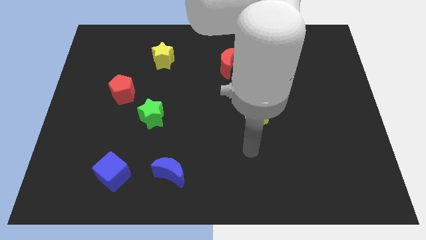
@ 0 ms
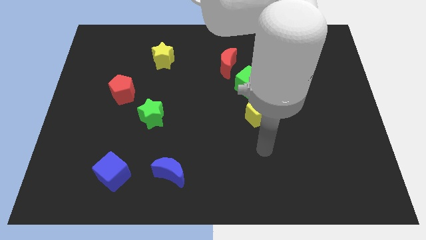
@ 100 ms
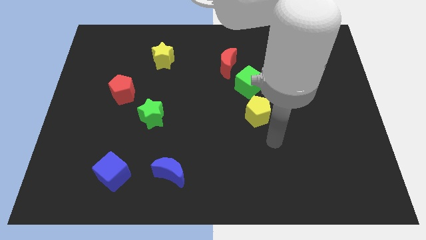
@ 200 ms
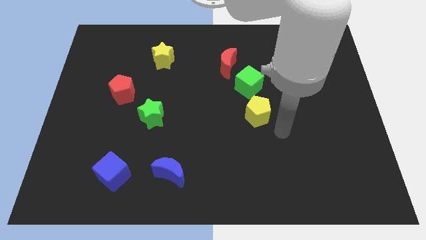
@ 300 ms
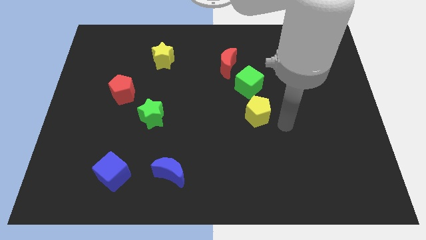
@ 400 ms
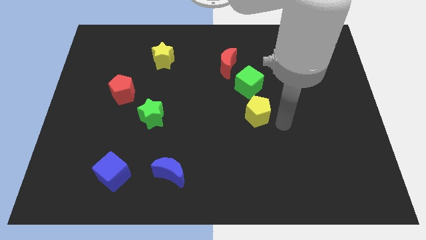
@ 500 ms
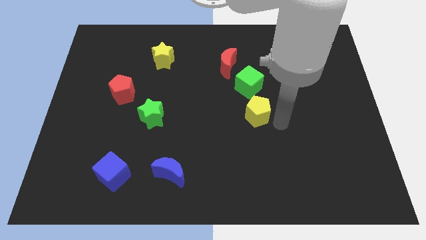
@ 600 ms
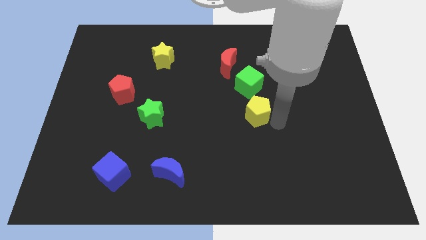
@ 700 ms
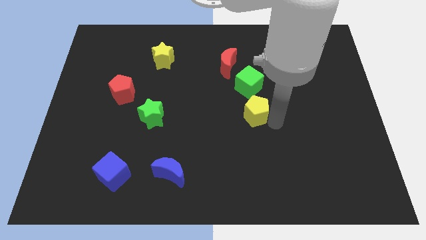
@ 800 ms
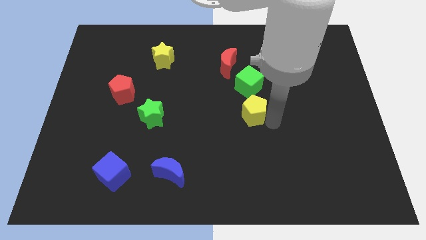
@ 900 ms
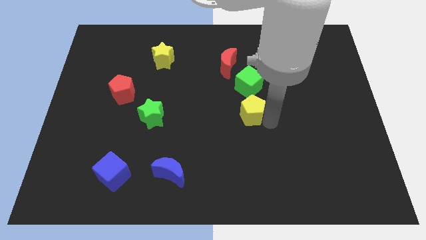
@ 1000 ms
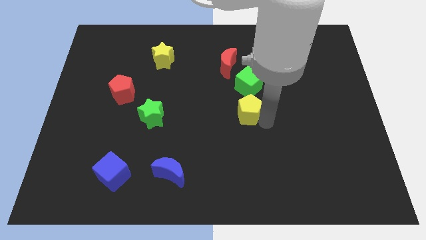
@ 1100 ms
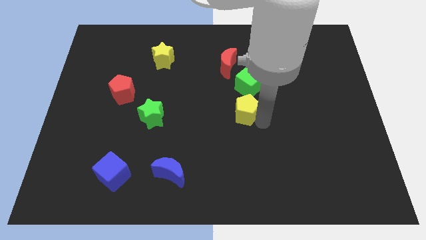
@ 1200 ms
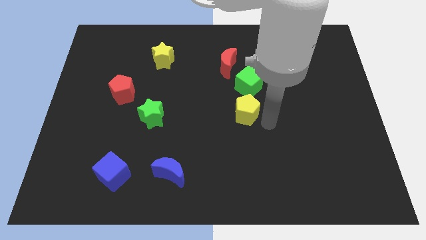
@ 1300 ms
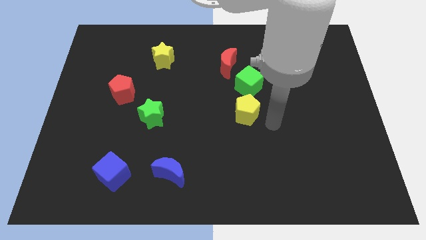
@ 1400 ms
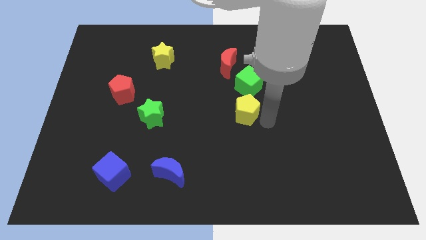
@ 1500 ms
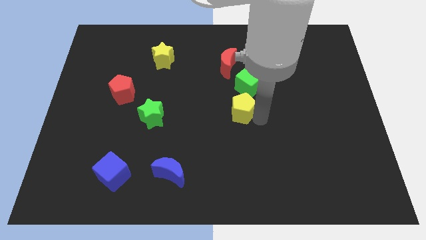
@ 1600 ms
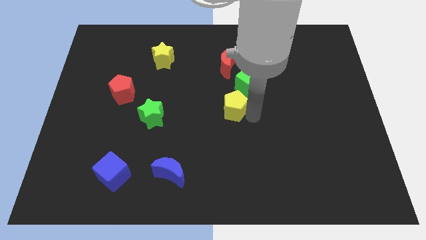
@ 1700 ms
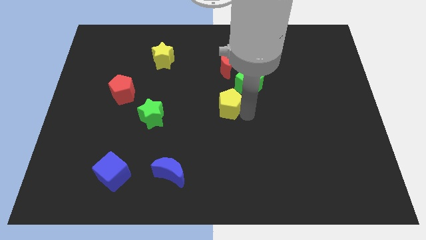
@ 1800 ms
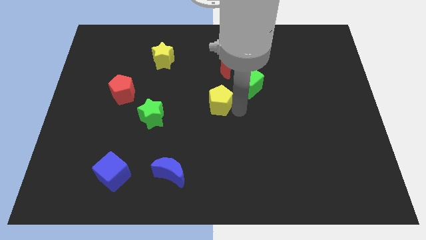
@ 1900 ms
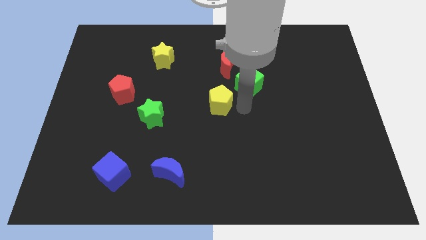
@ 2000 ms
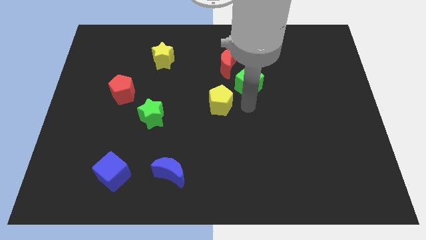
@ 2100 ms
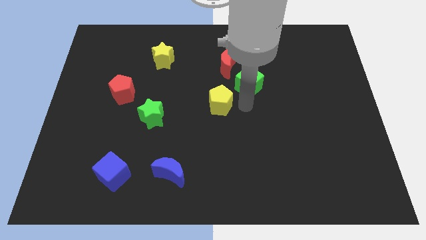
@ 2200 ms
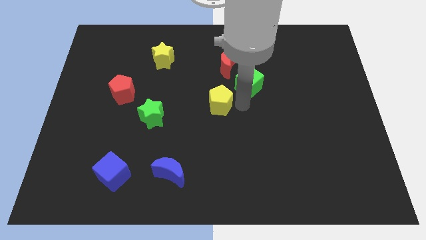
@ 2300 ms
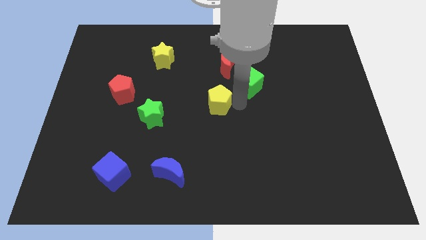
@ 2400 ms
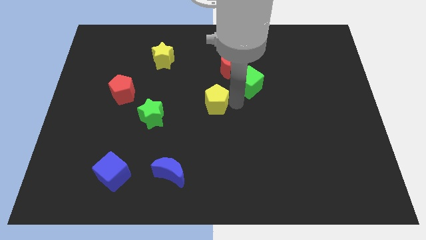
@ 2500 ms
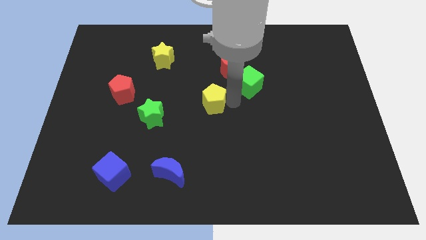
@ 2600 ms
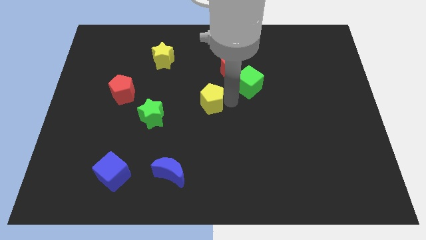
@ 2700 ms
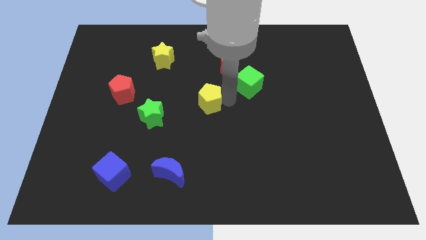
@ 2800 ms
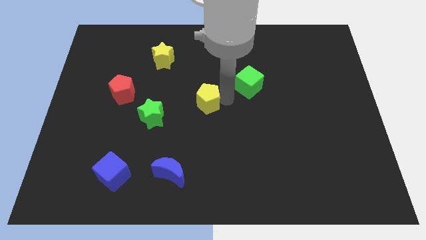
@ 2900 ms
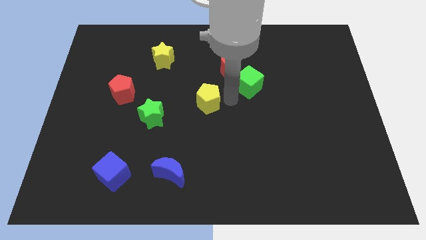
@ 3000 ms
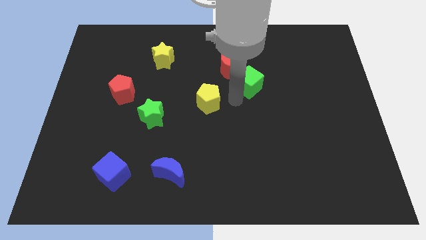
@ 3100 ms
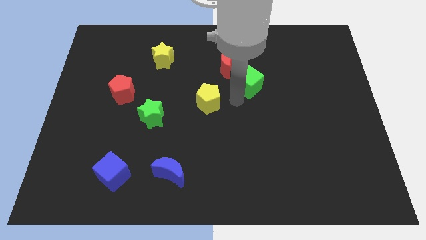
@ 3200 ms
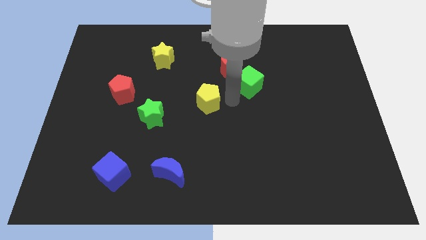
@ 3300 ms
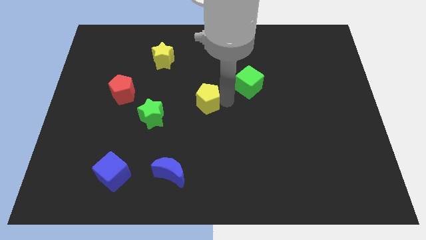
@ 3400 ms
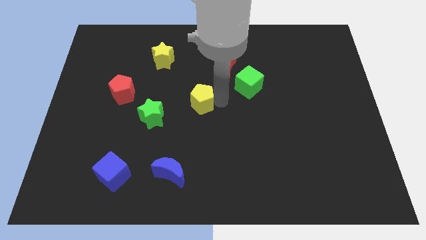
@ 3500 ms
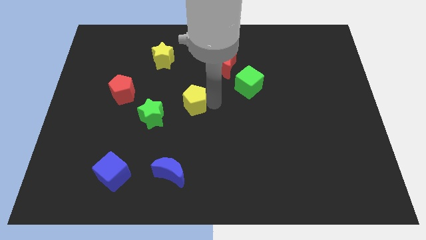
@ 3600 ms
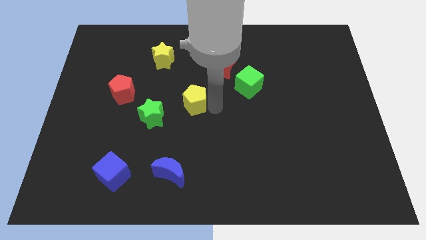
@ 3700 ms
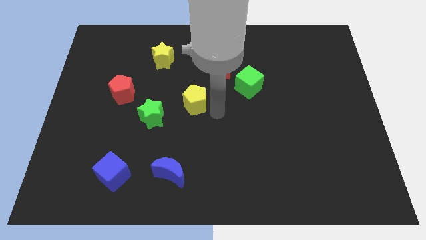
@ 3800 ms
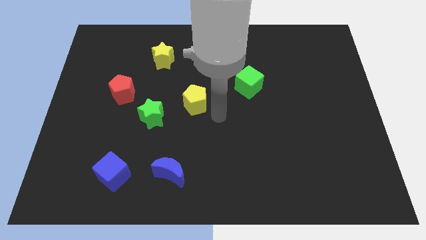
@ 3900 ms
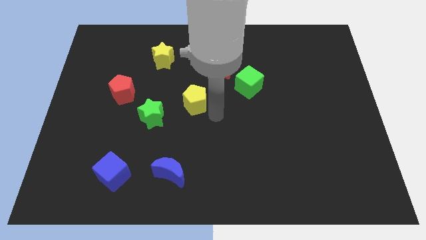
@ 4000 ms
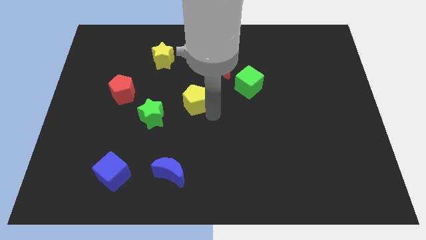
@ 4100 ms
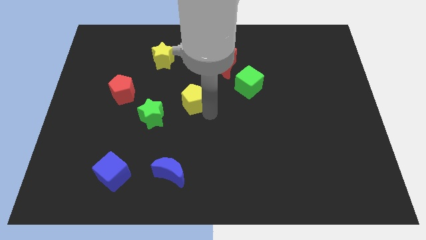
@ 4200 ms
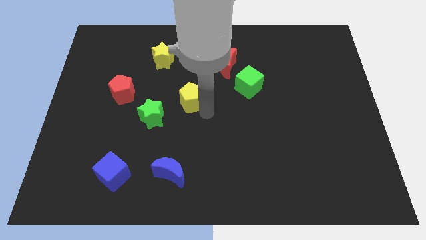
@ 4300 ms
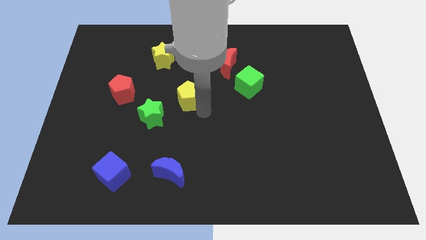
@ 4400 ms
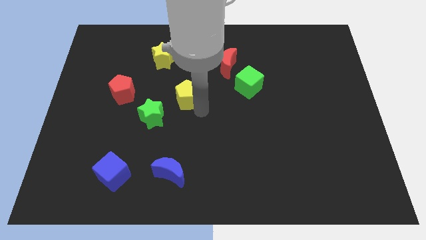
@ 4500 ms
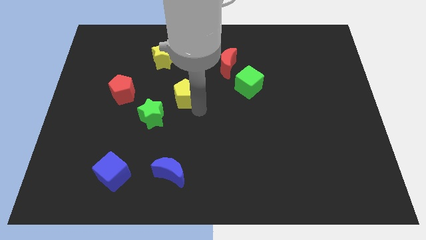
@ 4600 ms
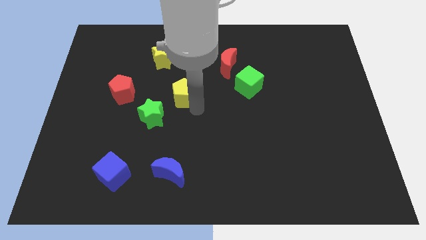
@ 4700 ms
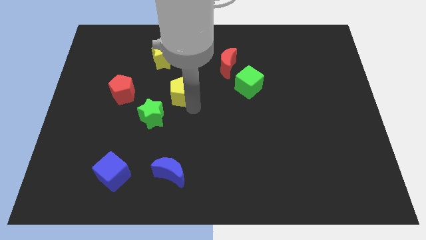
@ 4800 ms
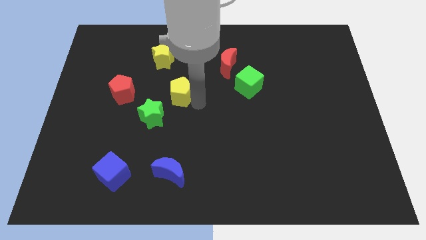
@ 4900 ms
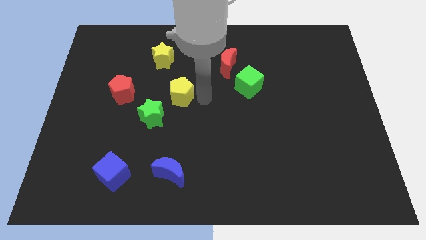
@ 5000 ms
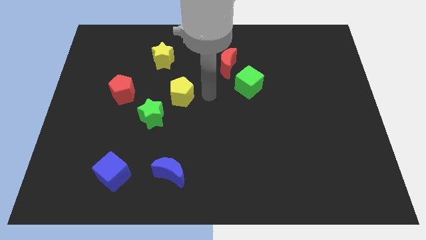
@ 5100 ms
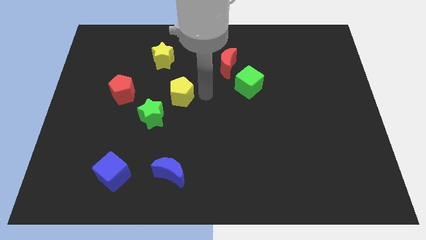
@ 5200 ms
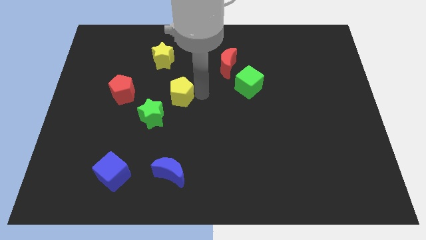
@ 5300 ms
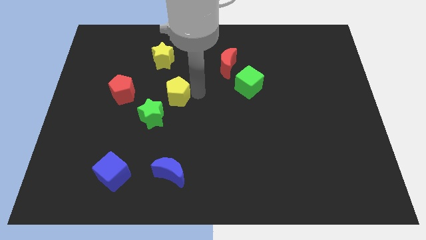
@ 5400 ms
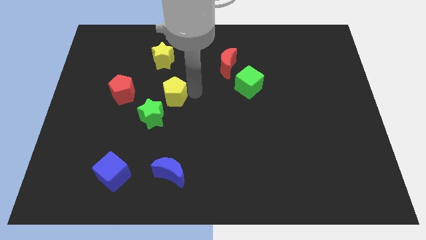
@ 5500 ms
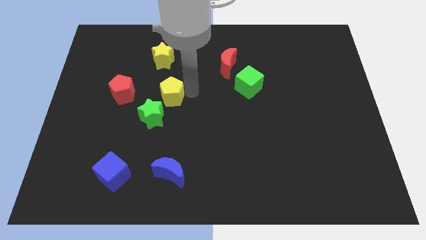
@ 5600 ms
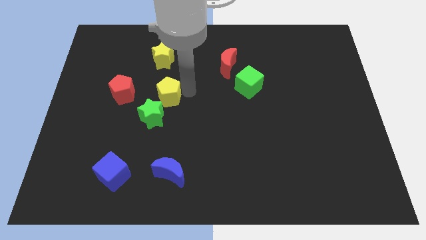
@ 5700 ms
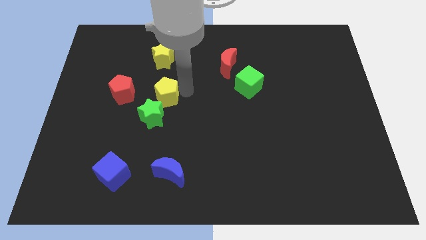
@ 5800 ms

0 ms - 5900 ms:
move the yellow pentagon to the left

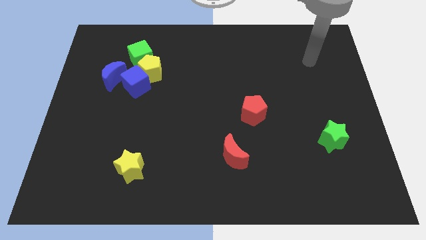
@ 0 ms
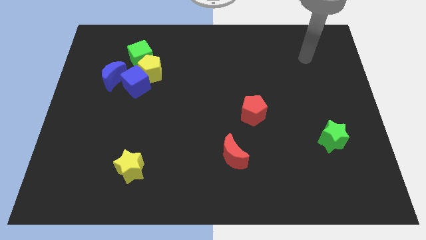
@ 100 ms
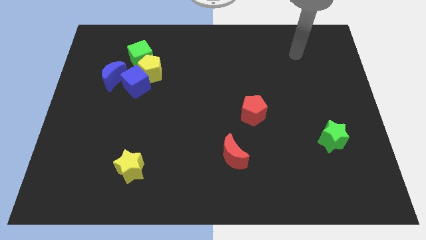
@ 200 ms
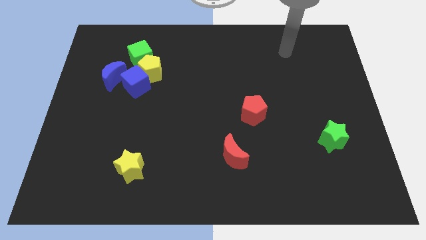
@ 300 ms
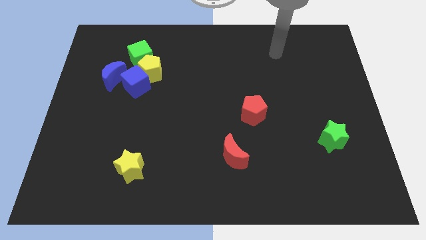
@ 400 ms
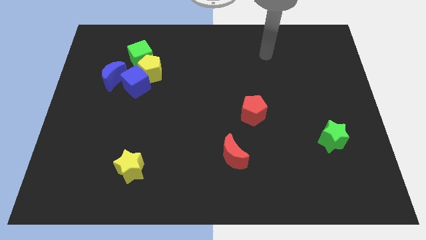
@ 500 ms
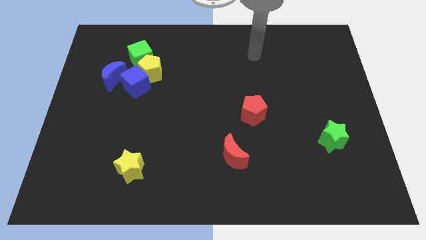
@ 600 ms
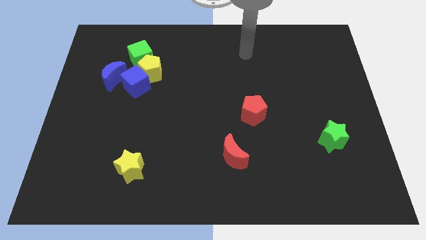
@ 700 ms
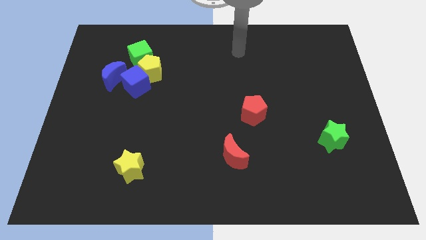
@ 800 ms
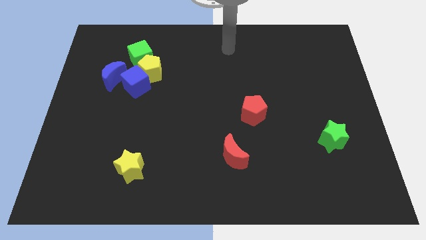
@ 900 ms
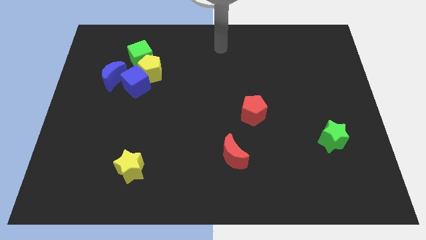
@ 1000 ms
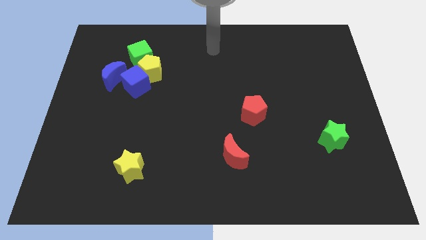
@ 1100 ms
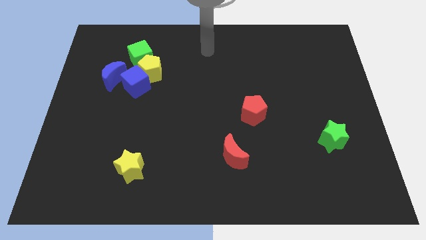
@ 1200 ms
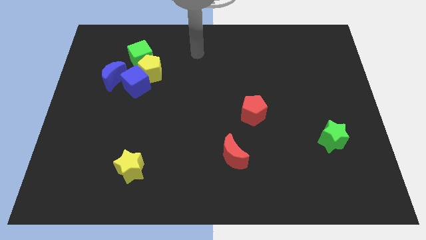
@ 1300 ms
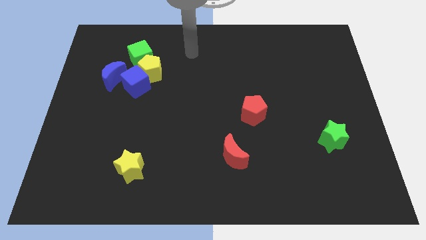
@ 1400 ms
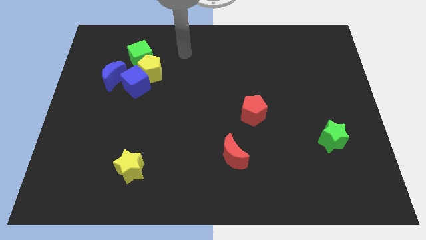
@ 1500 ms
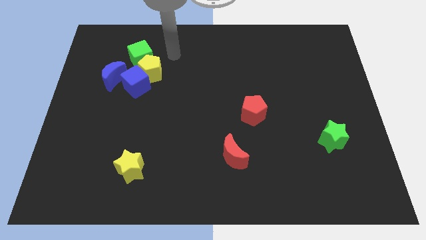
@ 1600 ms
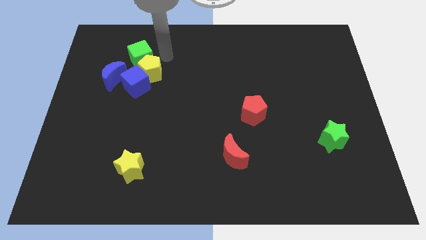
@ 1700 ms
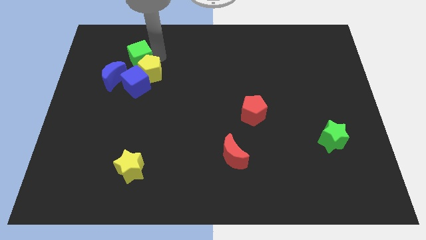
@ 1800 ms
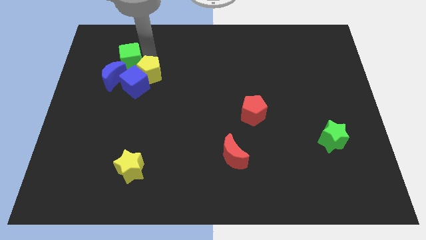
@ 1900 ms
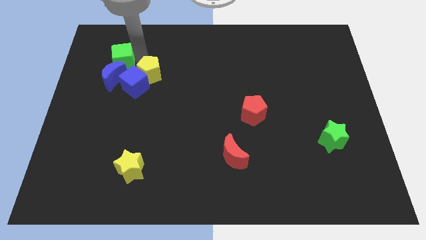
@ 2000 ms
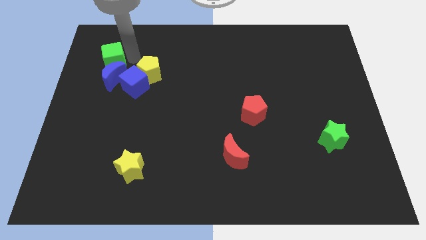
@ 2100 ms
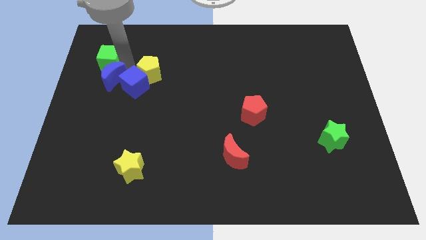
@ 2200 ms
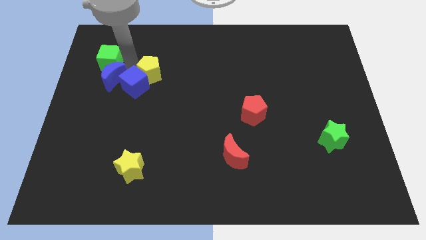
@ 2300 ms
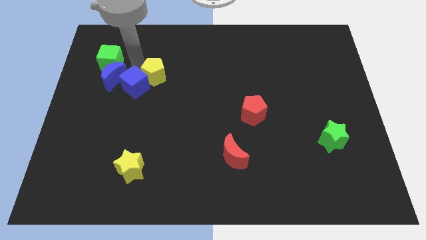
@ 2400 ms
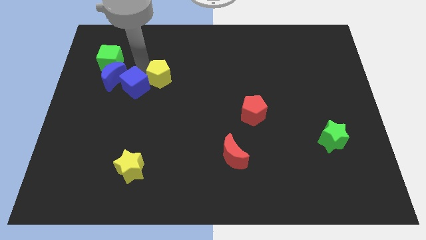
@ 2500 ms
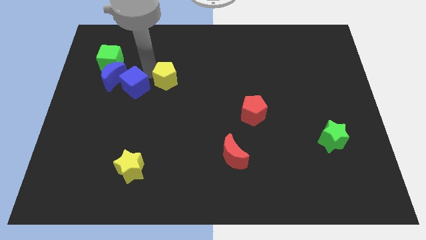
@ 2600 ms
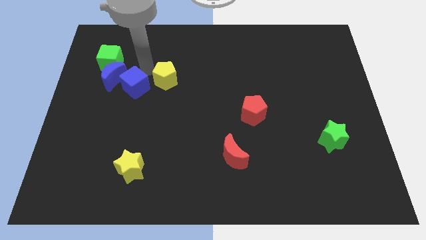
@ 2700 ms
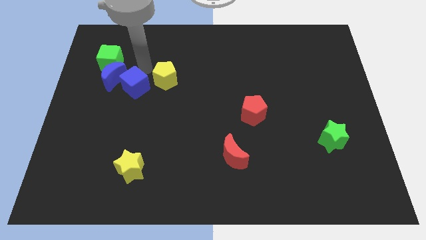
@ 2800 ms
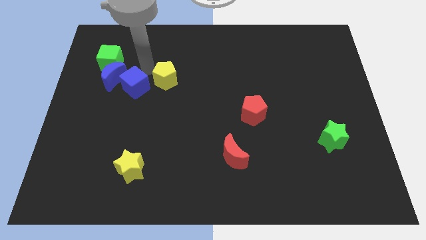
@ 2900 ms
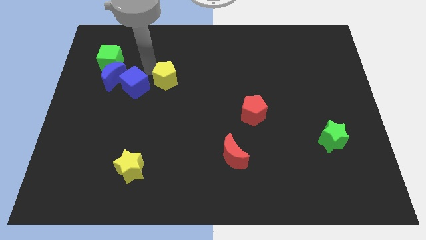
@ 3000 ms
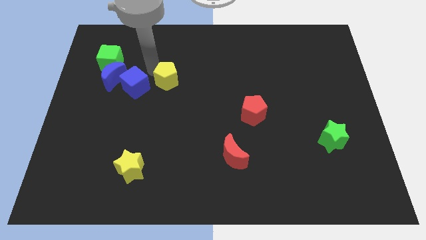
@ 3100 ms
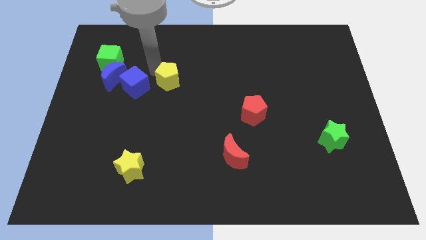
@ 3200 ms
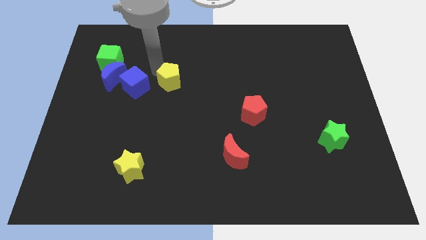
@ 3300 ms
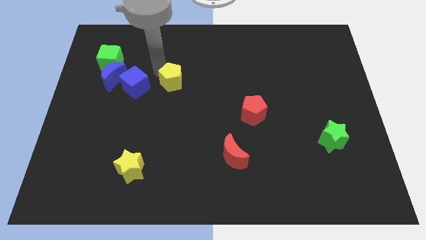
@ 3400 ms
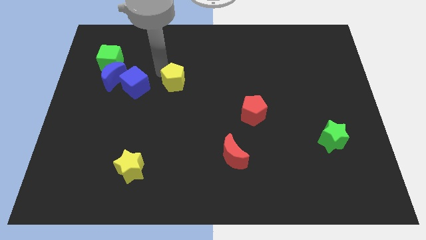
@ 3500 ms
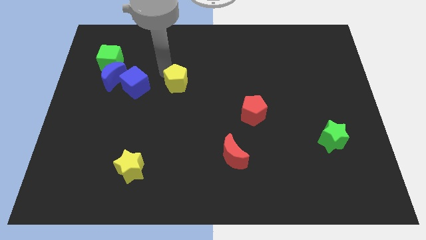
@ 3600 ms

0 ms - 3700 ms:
push the yellow pentagon slightly downwards and right diagonally
